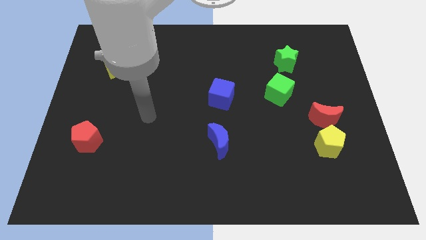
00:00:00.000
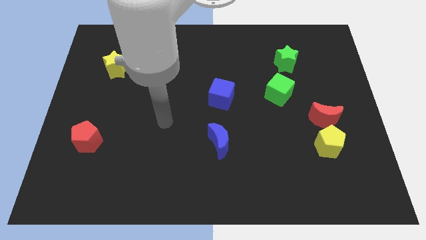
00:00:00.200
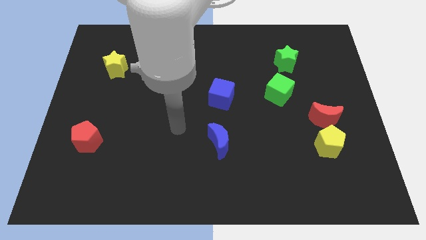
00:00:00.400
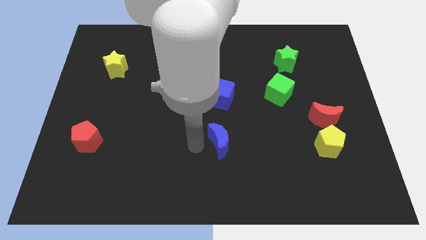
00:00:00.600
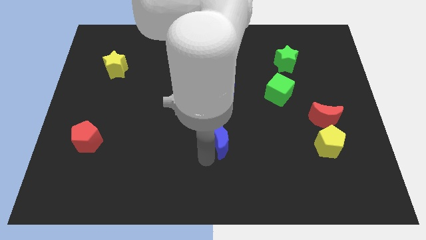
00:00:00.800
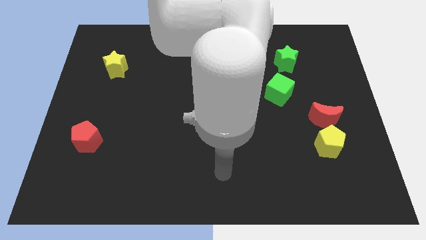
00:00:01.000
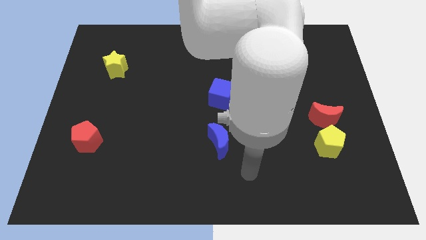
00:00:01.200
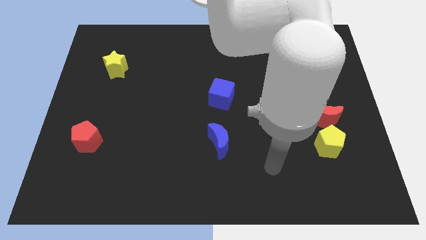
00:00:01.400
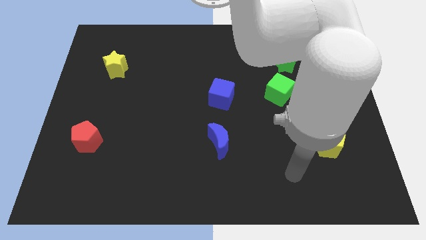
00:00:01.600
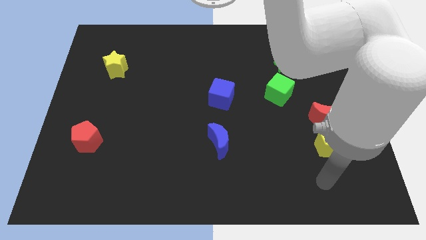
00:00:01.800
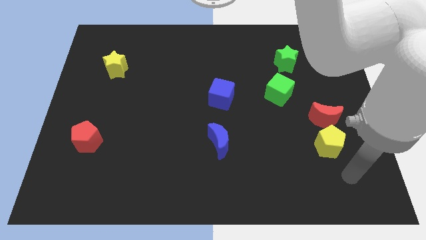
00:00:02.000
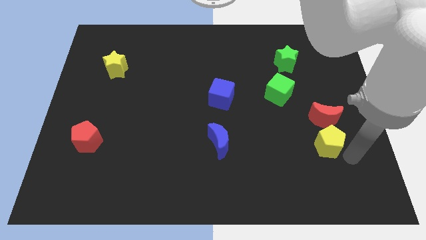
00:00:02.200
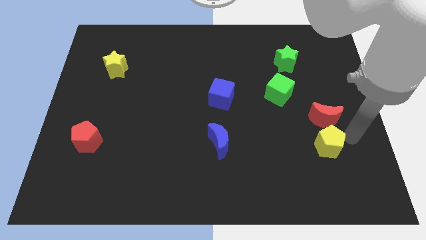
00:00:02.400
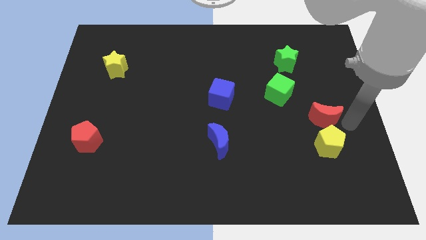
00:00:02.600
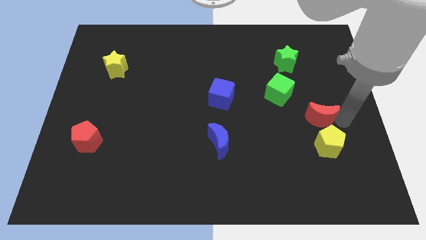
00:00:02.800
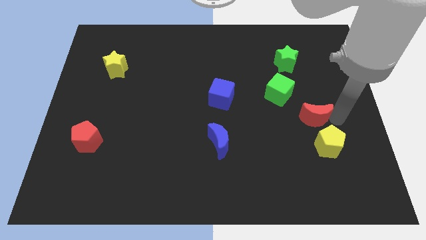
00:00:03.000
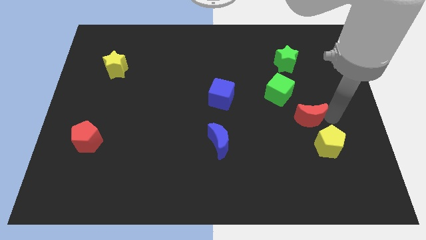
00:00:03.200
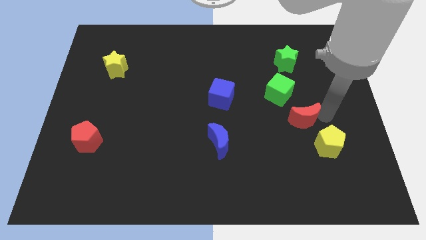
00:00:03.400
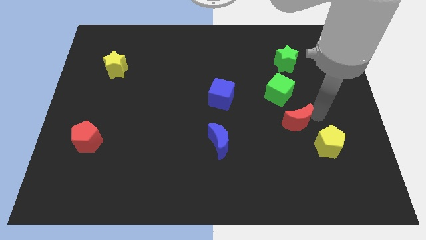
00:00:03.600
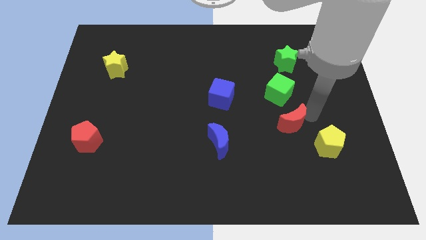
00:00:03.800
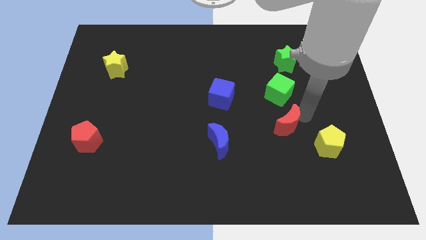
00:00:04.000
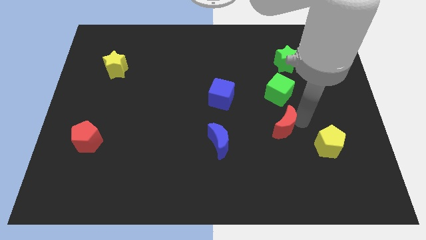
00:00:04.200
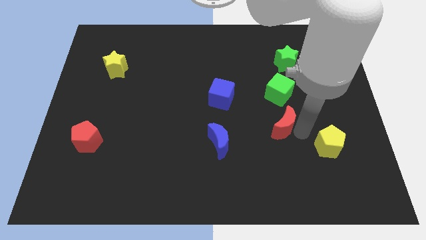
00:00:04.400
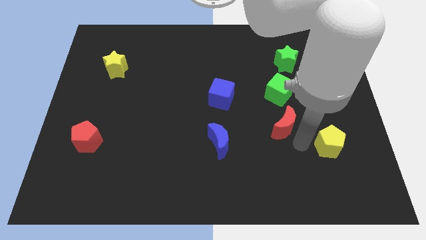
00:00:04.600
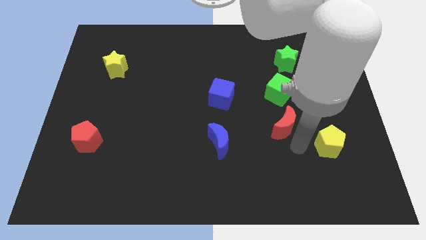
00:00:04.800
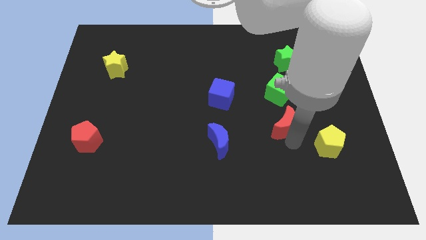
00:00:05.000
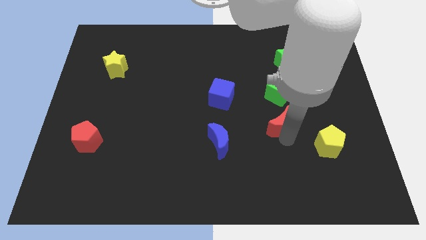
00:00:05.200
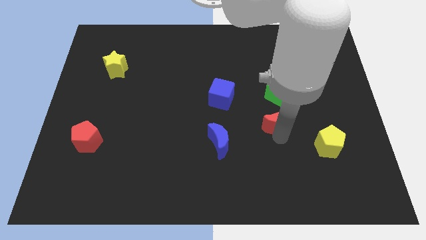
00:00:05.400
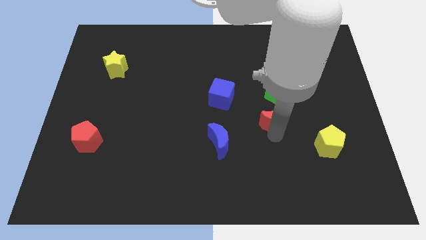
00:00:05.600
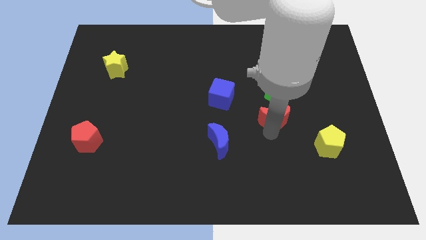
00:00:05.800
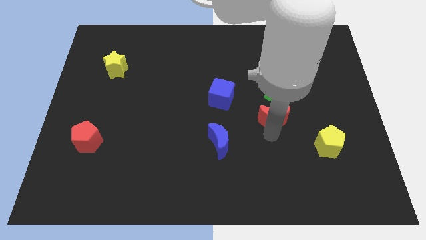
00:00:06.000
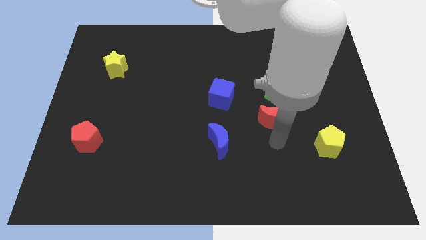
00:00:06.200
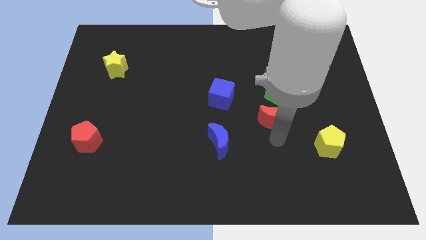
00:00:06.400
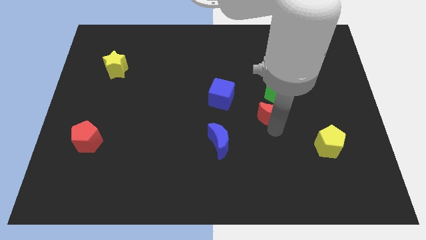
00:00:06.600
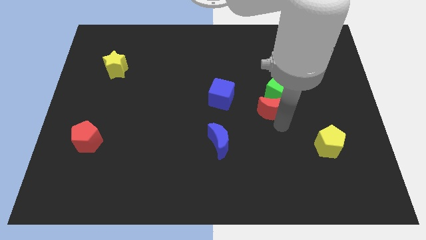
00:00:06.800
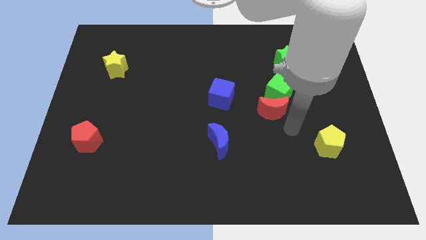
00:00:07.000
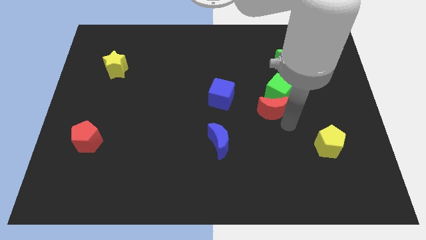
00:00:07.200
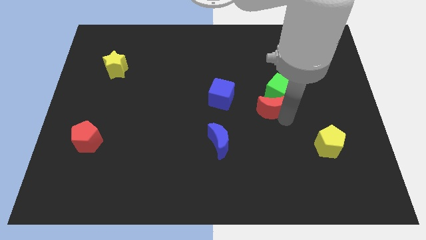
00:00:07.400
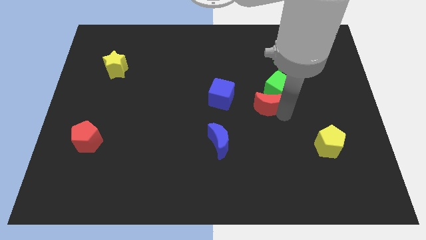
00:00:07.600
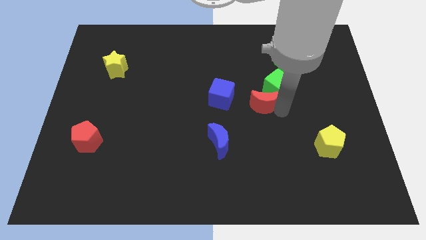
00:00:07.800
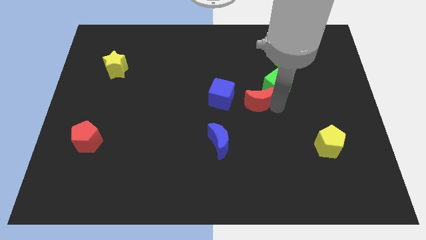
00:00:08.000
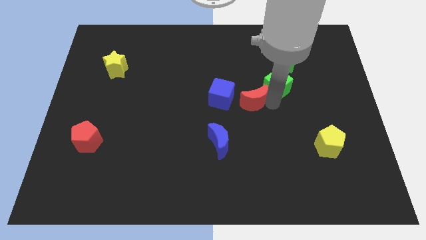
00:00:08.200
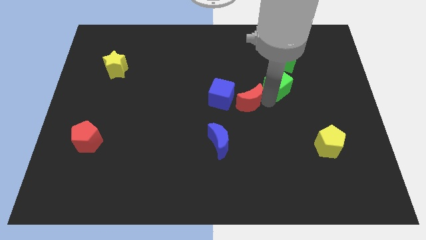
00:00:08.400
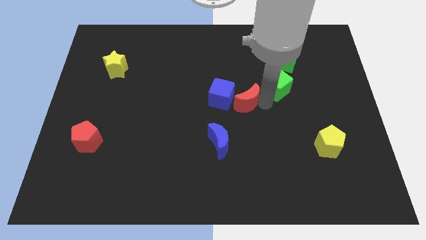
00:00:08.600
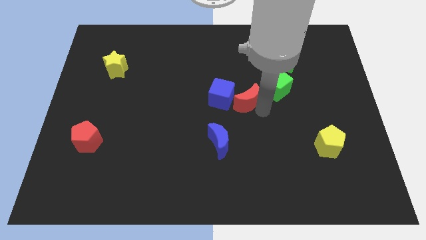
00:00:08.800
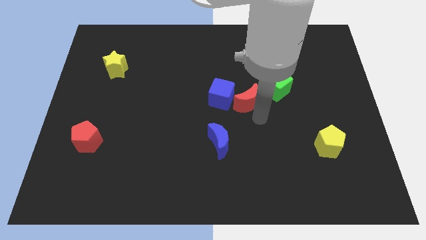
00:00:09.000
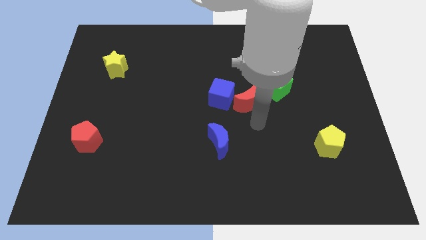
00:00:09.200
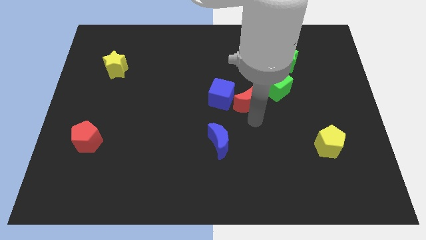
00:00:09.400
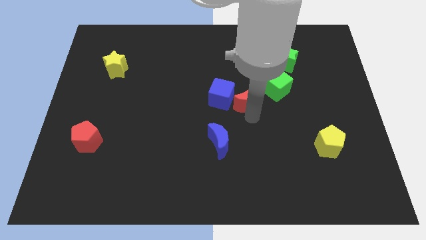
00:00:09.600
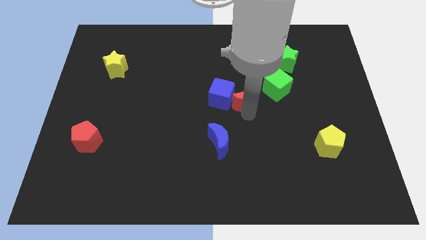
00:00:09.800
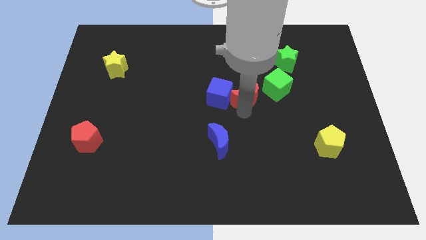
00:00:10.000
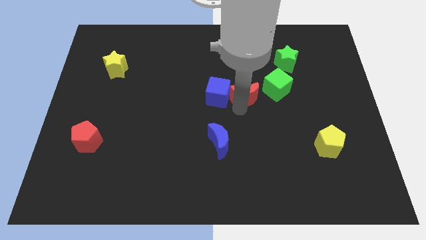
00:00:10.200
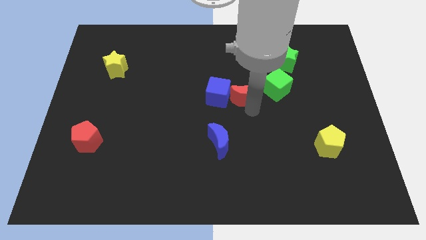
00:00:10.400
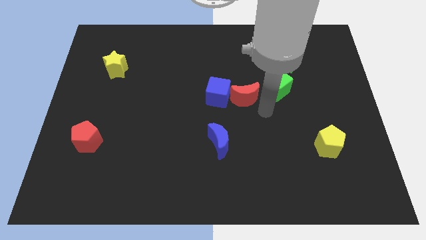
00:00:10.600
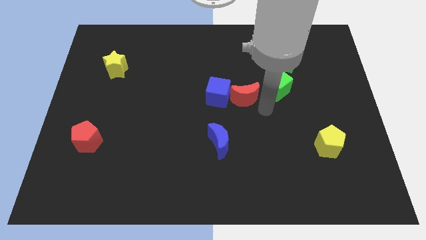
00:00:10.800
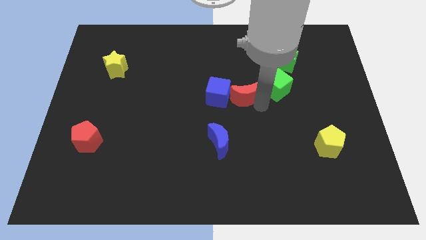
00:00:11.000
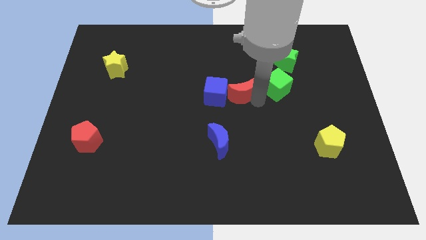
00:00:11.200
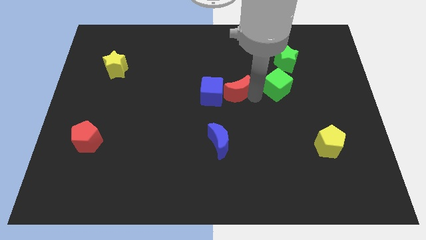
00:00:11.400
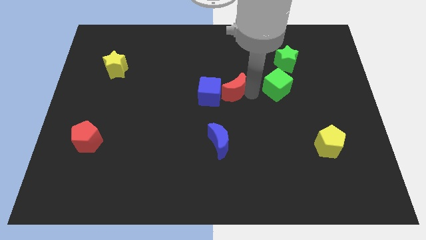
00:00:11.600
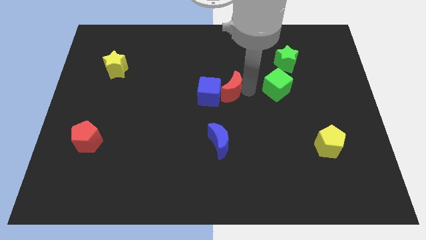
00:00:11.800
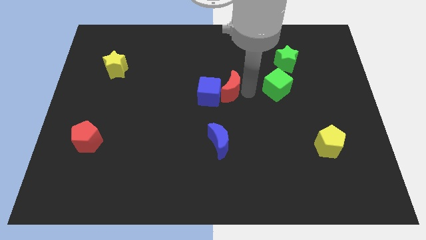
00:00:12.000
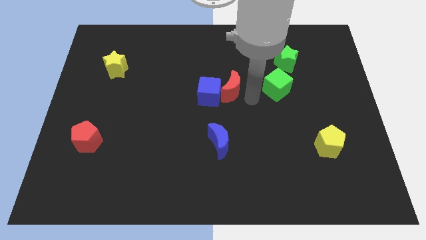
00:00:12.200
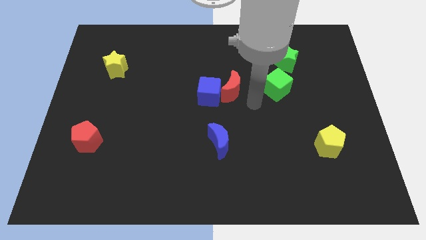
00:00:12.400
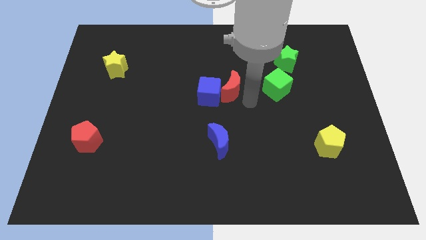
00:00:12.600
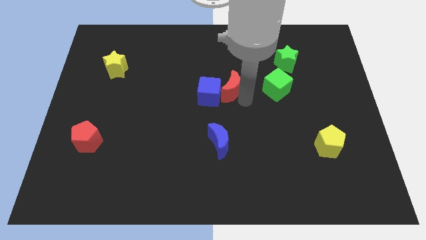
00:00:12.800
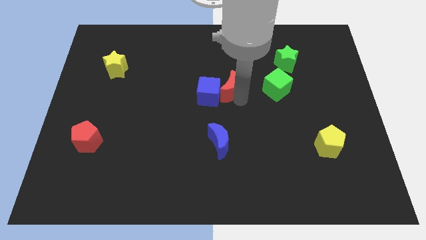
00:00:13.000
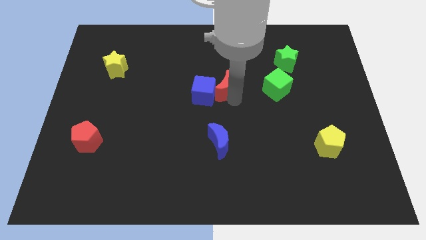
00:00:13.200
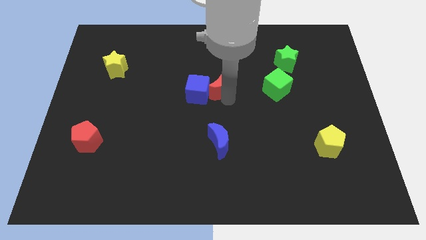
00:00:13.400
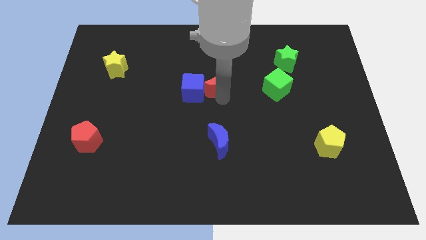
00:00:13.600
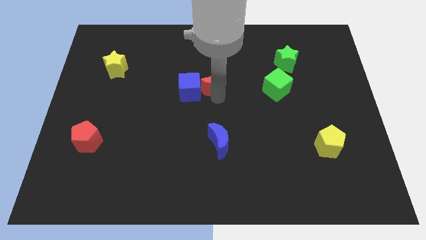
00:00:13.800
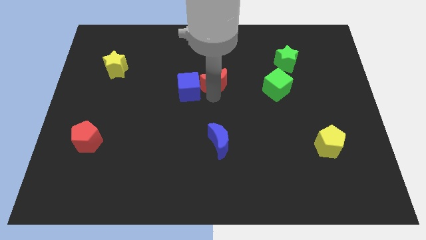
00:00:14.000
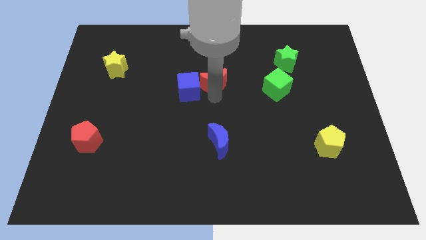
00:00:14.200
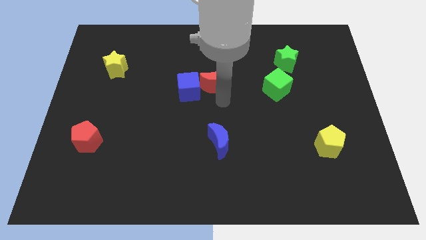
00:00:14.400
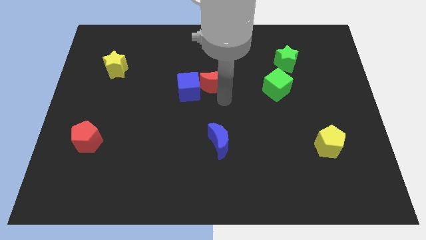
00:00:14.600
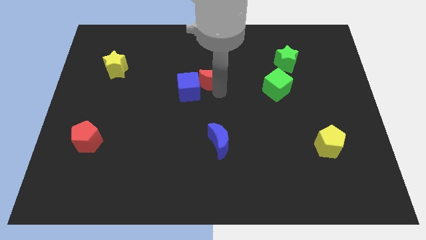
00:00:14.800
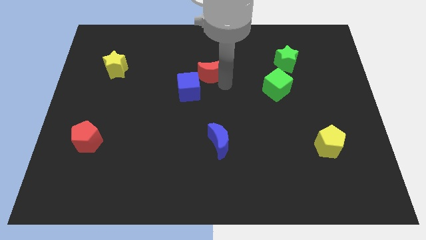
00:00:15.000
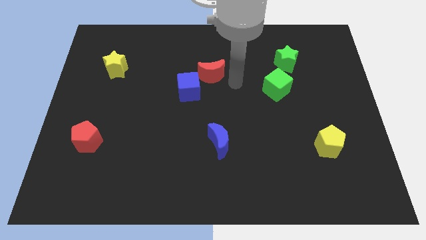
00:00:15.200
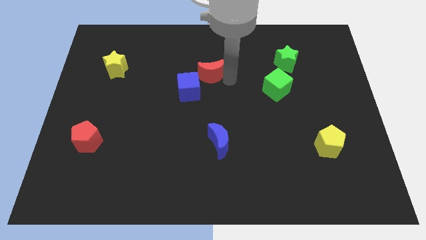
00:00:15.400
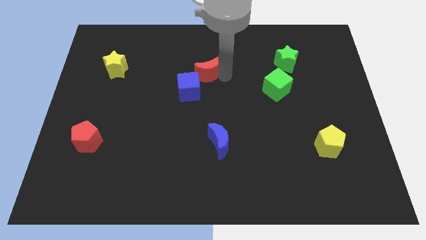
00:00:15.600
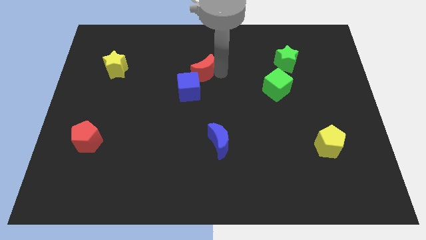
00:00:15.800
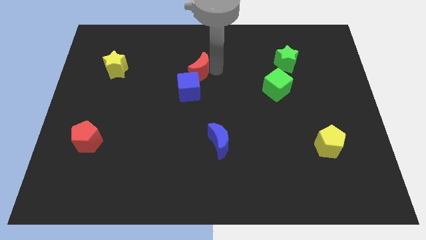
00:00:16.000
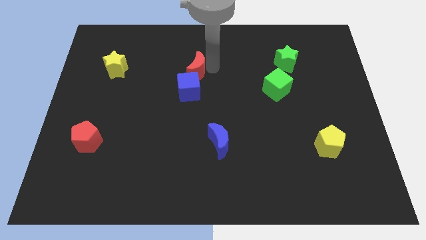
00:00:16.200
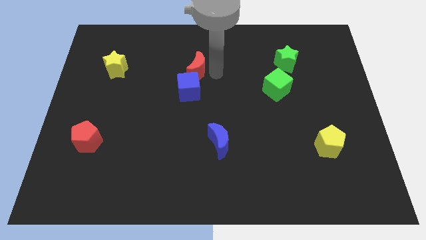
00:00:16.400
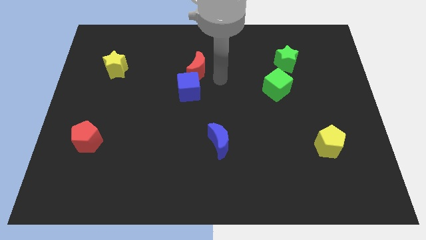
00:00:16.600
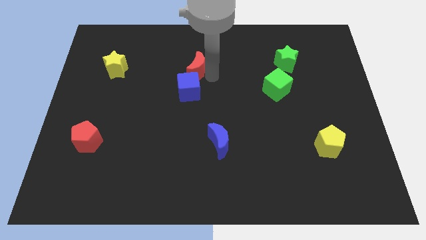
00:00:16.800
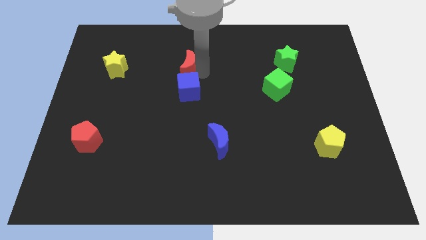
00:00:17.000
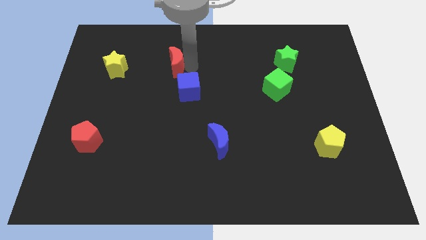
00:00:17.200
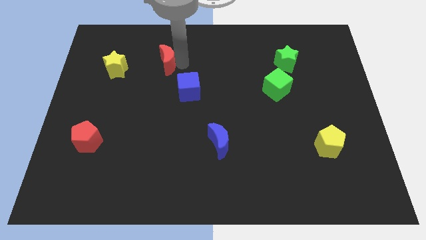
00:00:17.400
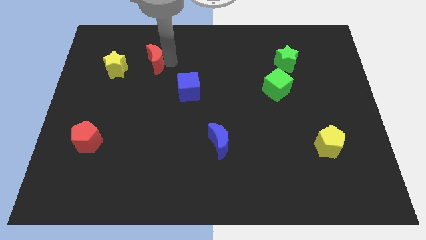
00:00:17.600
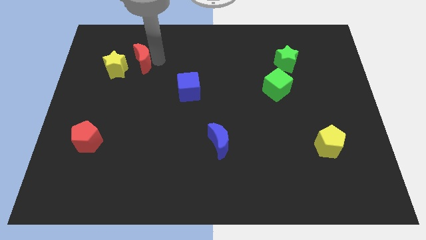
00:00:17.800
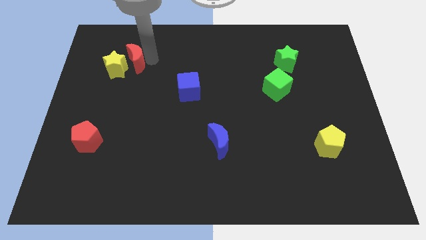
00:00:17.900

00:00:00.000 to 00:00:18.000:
slide the red moon to the yellow star
